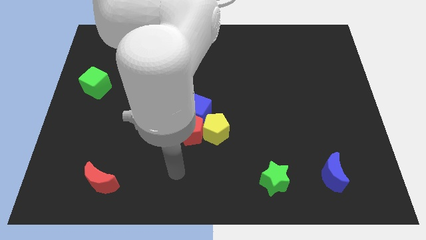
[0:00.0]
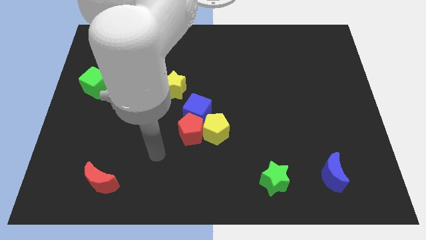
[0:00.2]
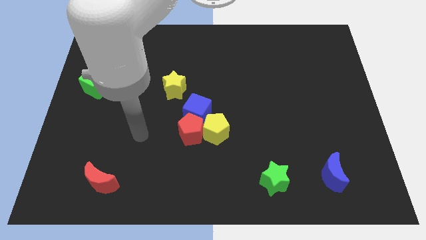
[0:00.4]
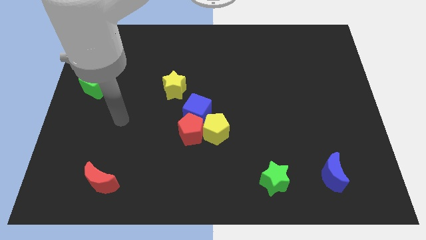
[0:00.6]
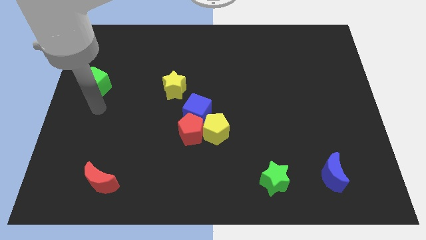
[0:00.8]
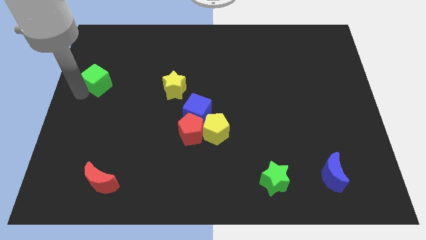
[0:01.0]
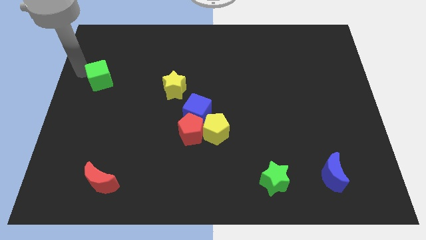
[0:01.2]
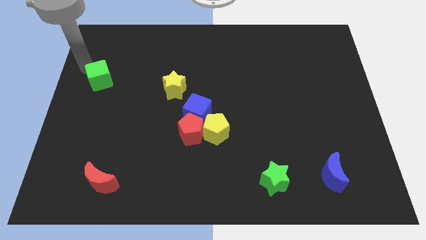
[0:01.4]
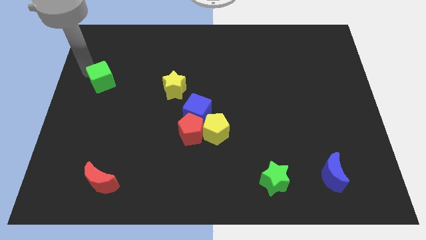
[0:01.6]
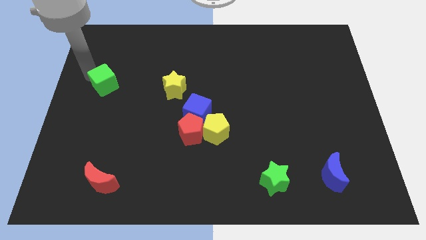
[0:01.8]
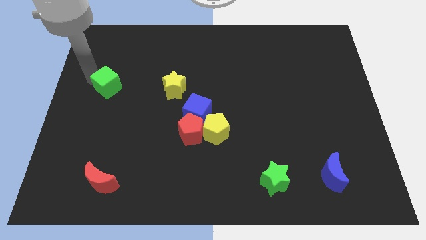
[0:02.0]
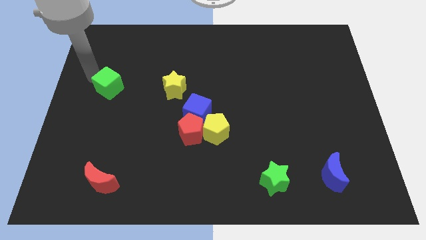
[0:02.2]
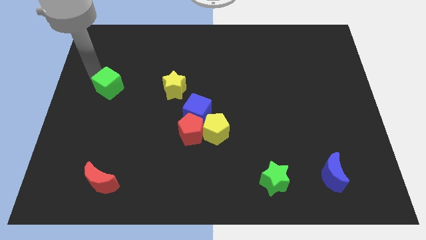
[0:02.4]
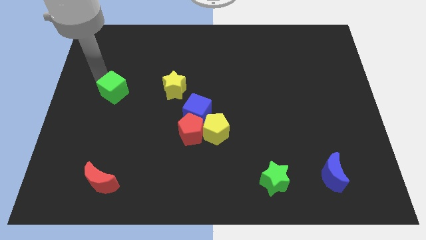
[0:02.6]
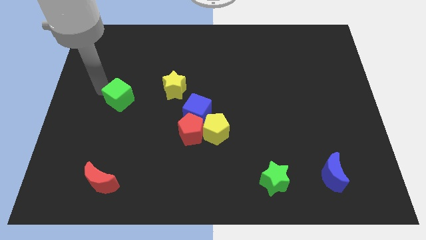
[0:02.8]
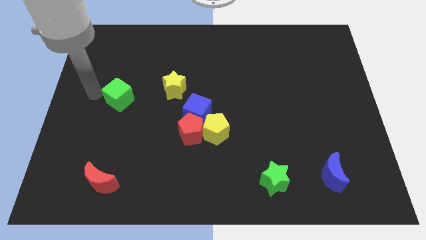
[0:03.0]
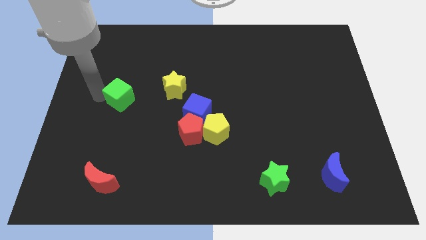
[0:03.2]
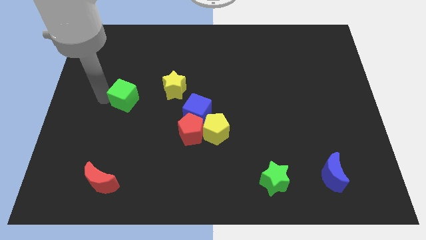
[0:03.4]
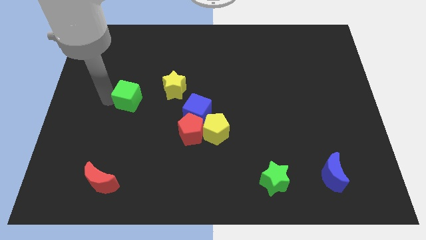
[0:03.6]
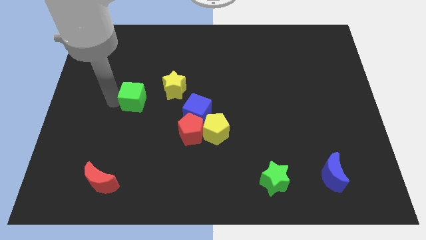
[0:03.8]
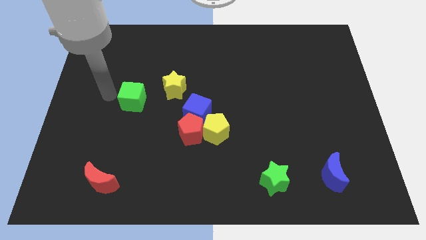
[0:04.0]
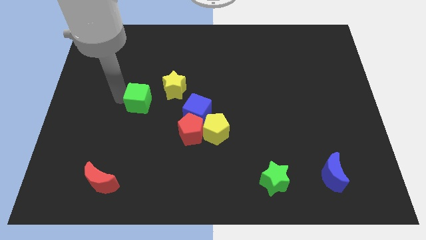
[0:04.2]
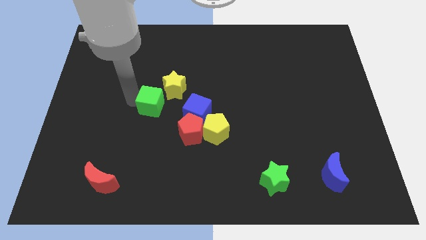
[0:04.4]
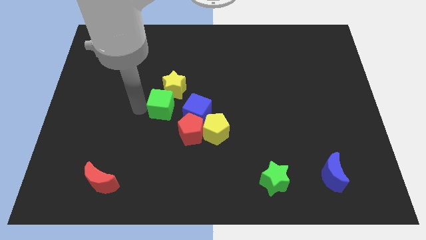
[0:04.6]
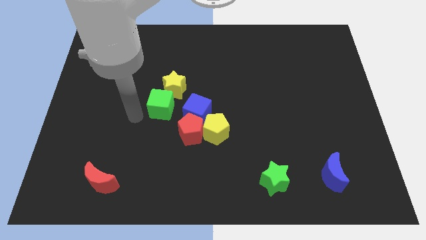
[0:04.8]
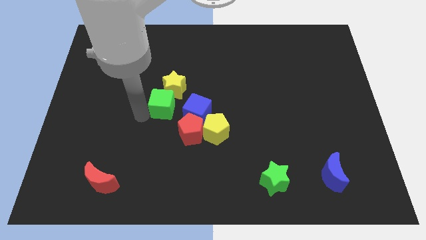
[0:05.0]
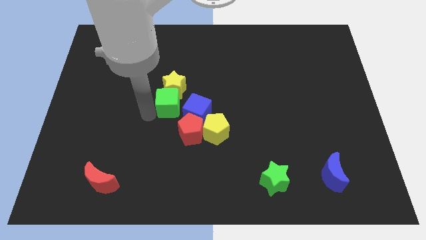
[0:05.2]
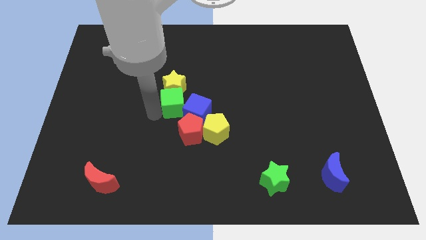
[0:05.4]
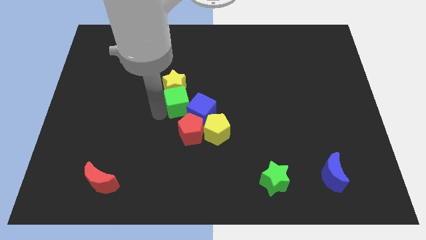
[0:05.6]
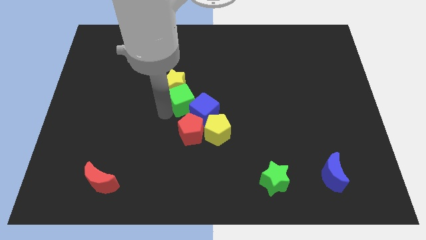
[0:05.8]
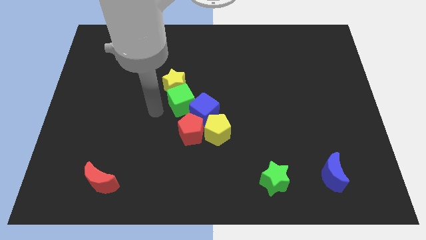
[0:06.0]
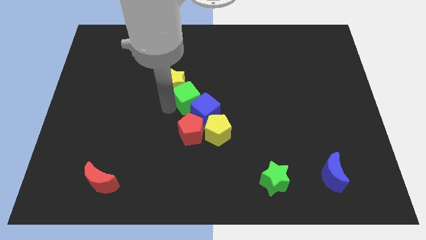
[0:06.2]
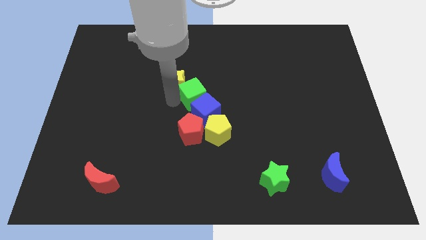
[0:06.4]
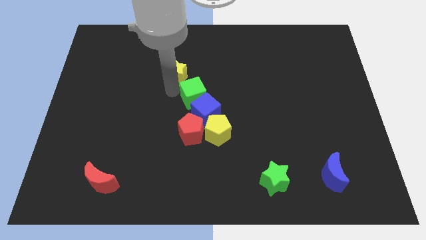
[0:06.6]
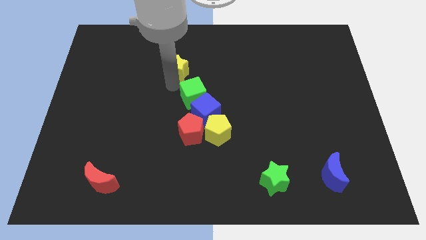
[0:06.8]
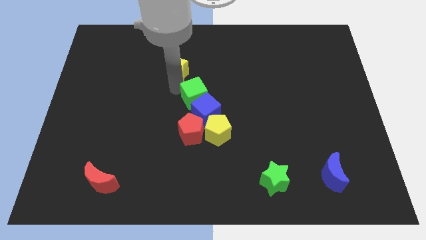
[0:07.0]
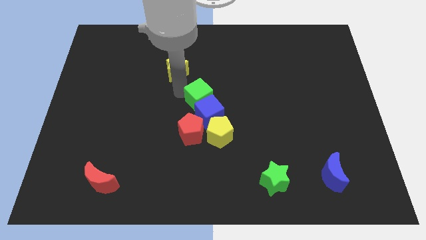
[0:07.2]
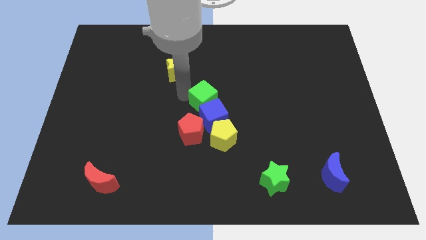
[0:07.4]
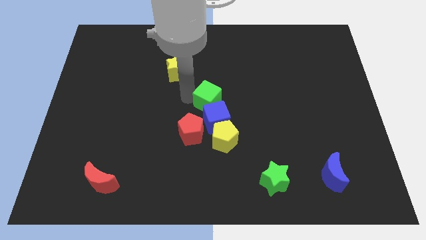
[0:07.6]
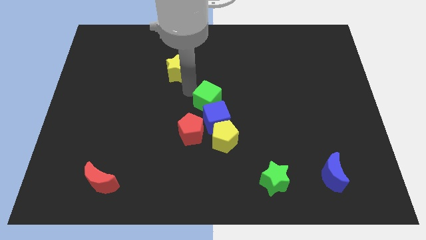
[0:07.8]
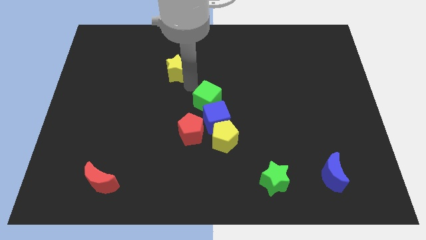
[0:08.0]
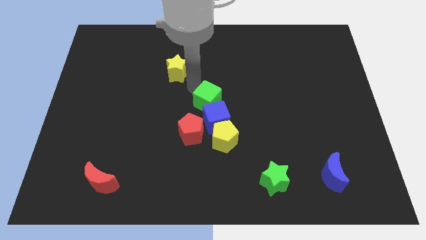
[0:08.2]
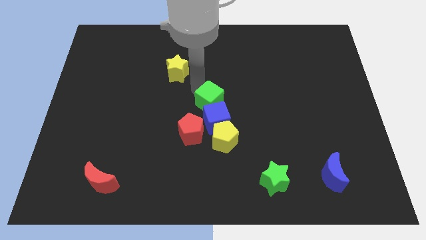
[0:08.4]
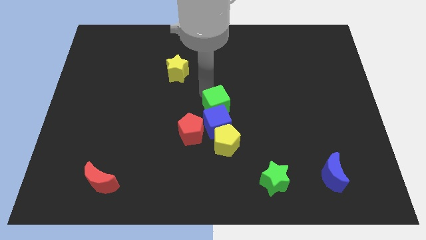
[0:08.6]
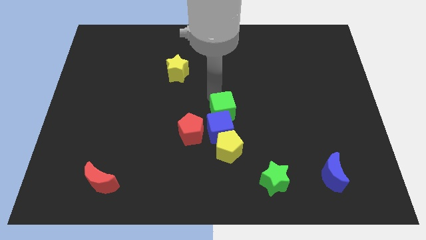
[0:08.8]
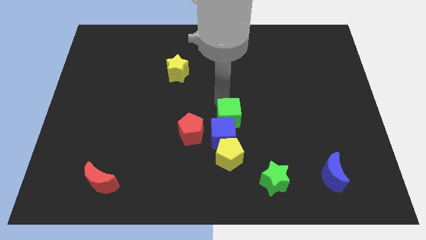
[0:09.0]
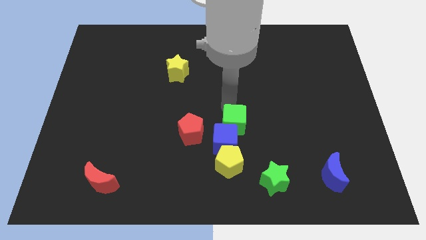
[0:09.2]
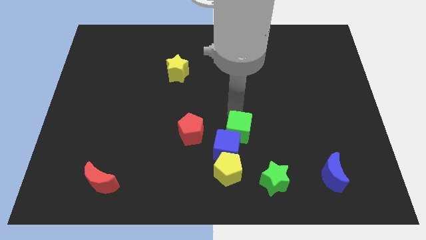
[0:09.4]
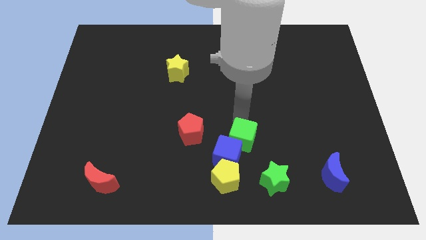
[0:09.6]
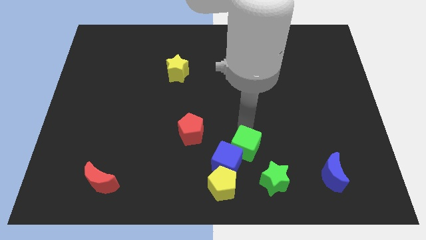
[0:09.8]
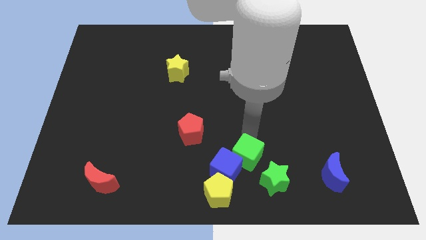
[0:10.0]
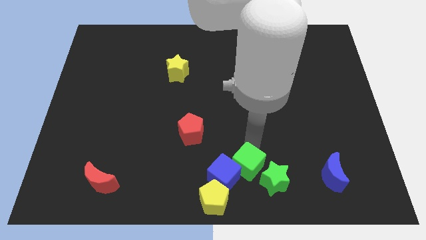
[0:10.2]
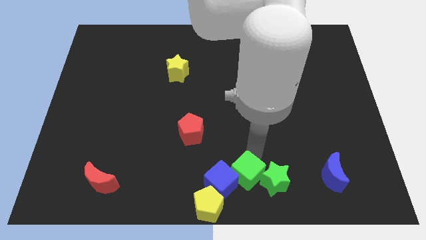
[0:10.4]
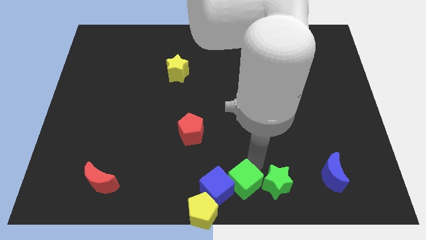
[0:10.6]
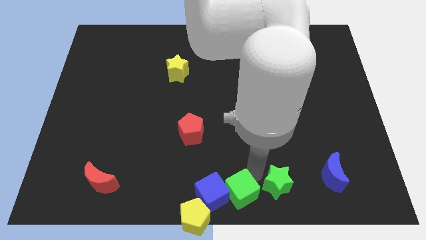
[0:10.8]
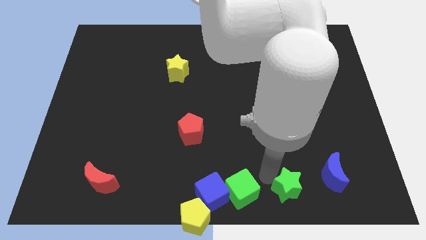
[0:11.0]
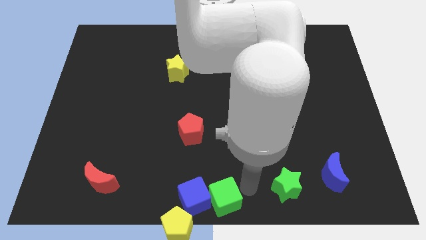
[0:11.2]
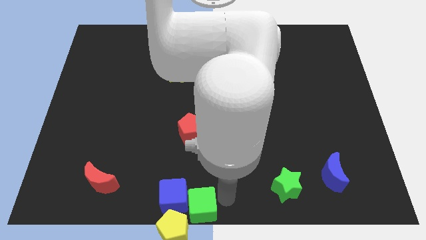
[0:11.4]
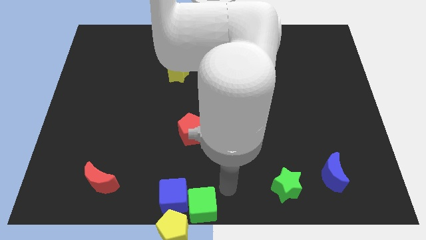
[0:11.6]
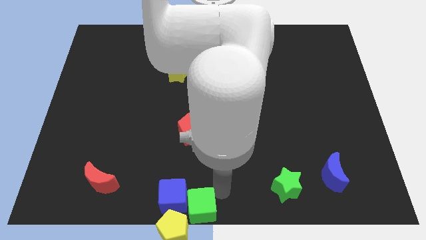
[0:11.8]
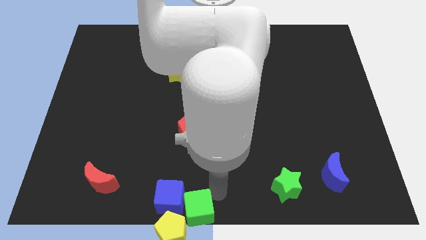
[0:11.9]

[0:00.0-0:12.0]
move the green cube close to the yellow pentagon

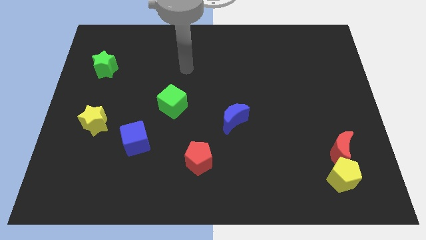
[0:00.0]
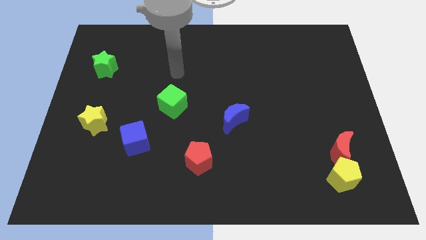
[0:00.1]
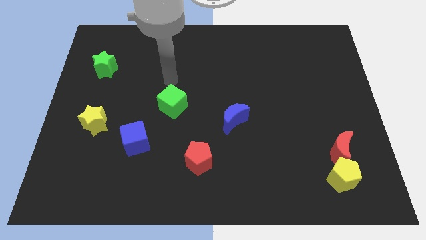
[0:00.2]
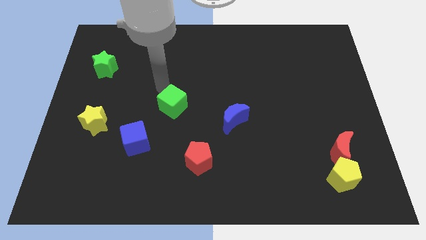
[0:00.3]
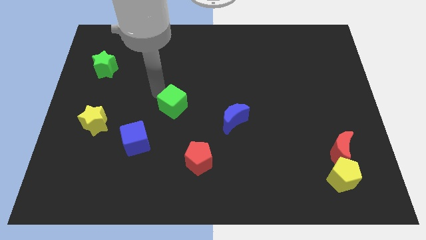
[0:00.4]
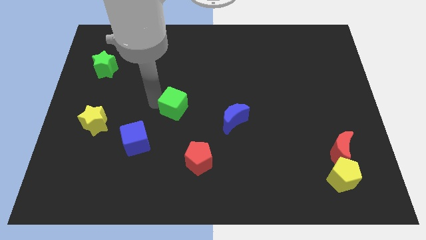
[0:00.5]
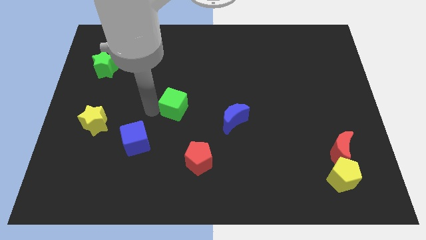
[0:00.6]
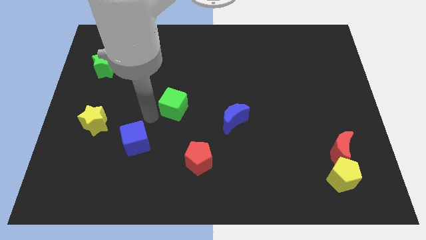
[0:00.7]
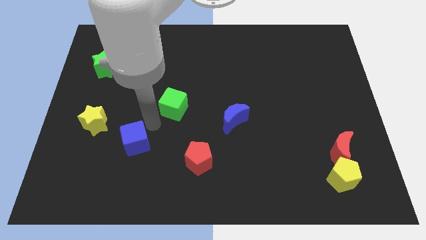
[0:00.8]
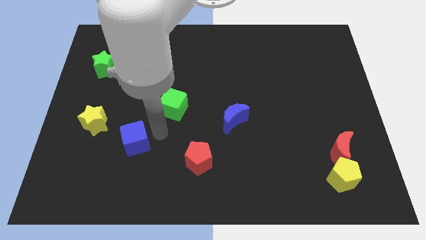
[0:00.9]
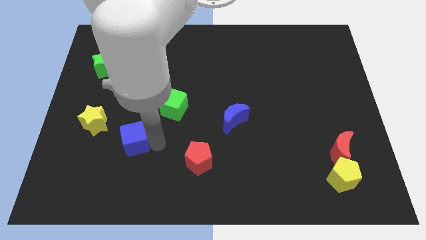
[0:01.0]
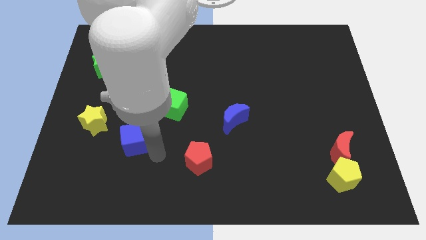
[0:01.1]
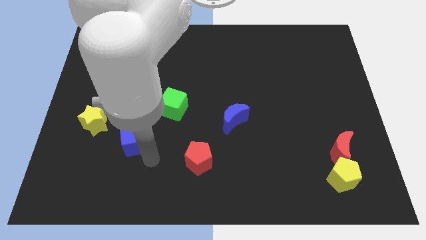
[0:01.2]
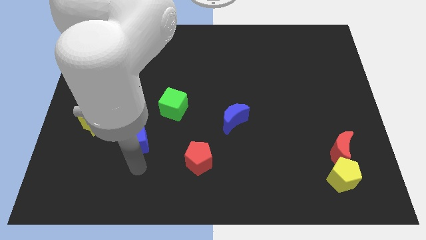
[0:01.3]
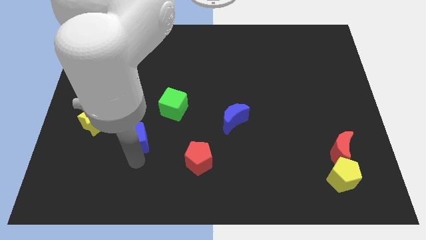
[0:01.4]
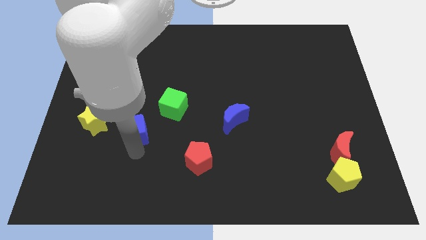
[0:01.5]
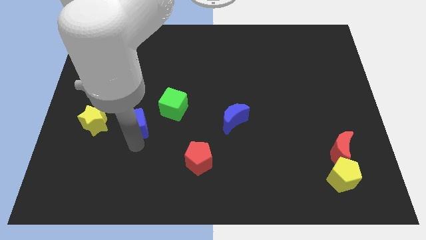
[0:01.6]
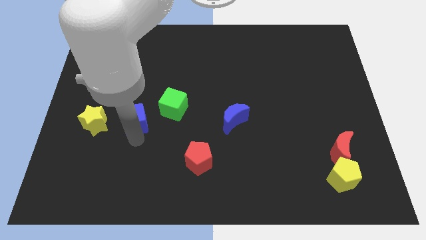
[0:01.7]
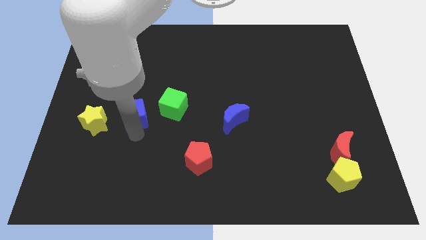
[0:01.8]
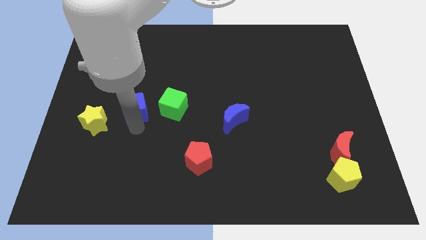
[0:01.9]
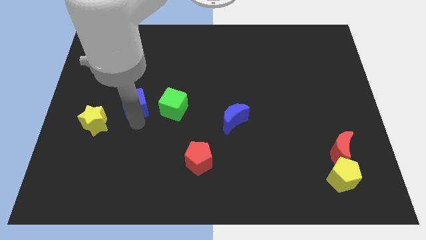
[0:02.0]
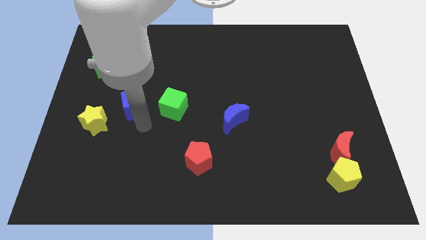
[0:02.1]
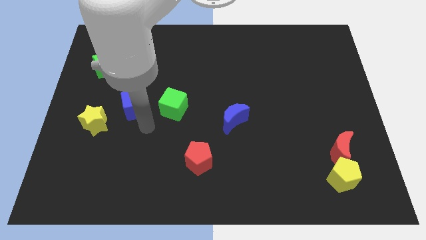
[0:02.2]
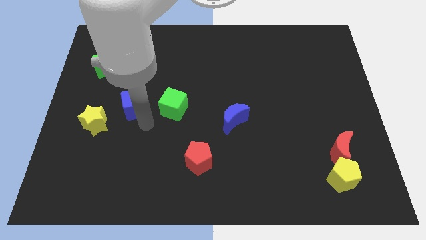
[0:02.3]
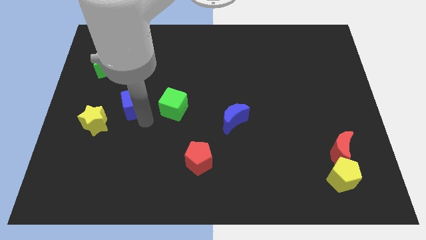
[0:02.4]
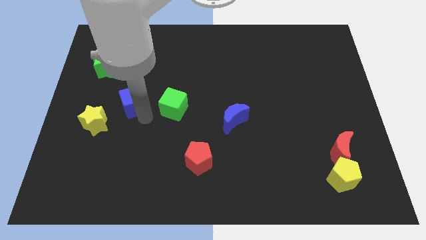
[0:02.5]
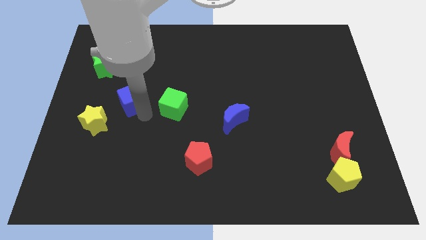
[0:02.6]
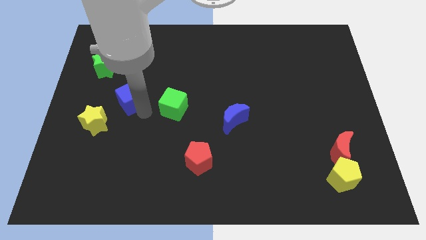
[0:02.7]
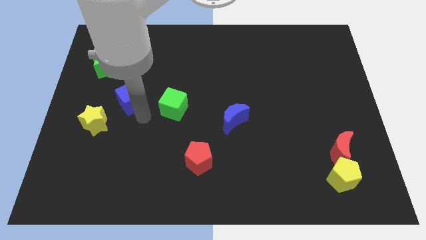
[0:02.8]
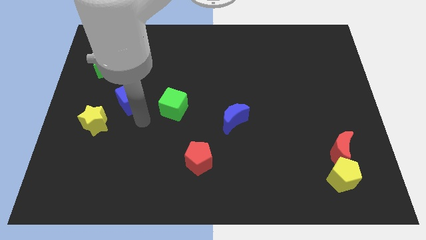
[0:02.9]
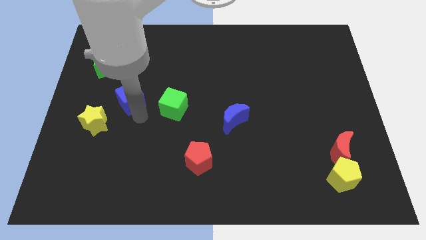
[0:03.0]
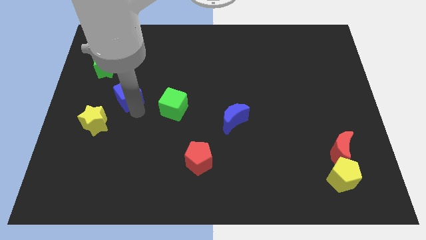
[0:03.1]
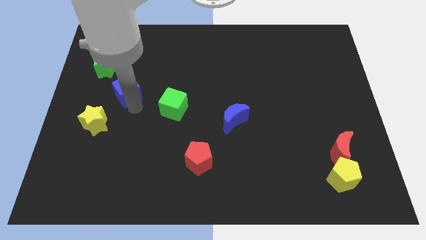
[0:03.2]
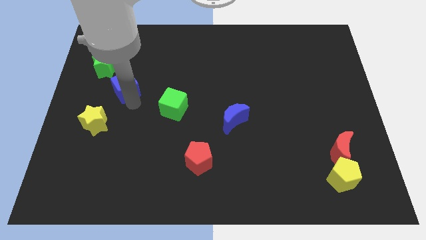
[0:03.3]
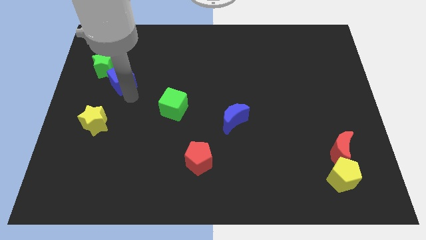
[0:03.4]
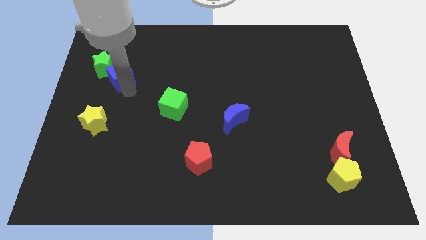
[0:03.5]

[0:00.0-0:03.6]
slide the blue cube to the green star
